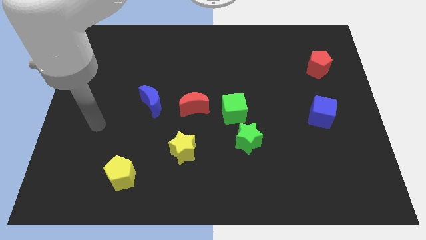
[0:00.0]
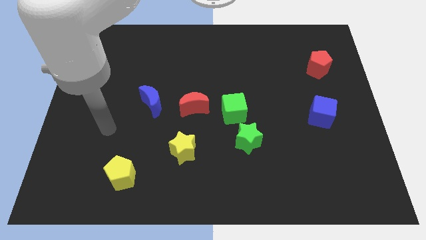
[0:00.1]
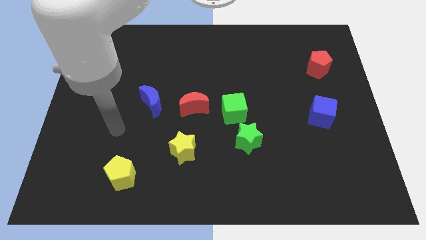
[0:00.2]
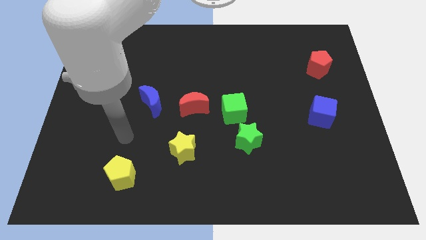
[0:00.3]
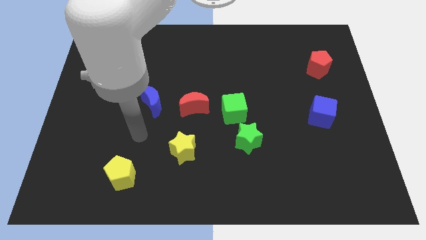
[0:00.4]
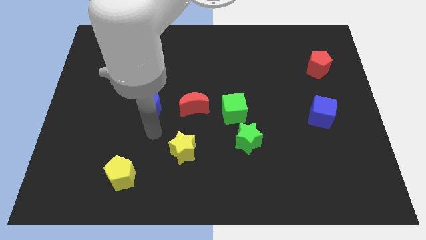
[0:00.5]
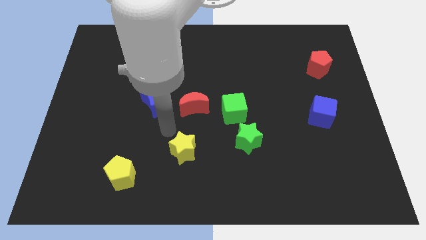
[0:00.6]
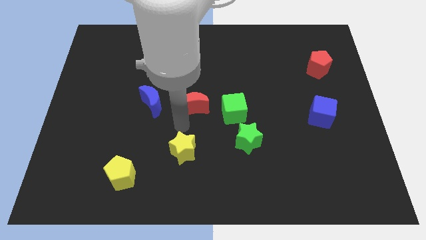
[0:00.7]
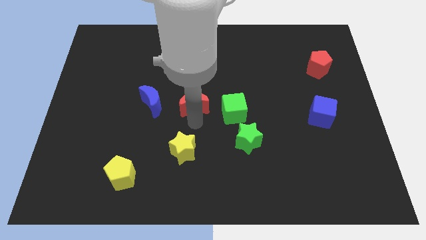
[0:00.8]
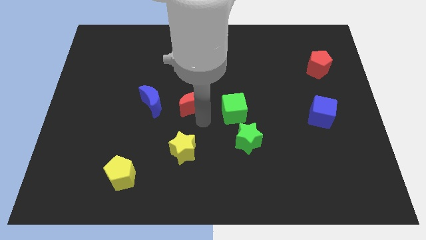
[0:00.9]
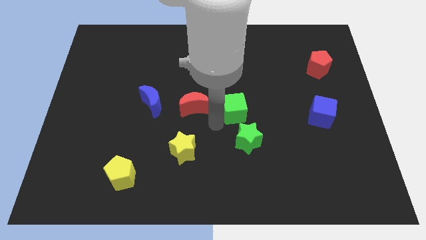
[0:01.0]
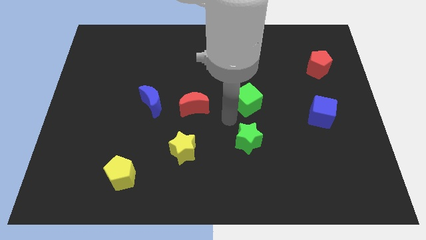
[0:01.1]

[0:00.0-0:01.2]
separate the green star from the green cube

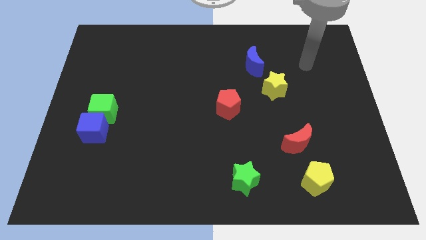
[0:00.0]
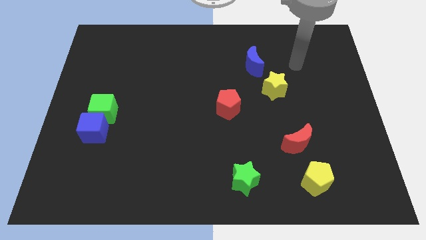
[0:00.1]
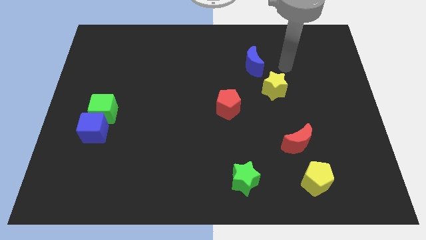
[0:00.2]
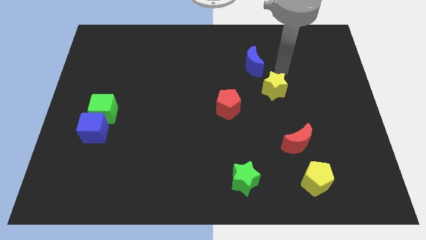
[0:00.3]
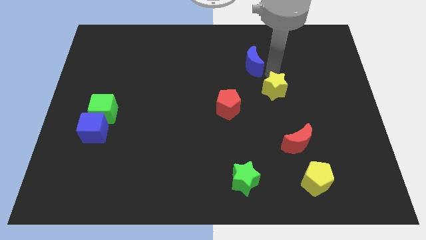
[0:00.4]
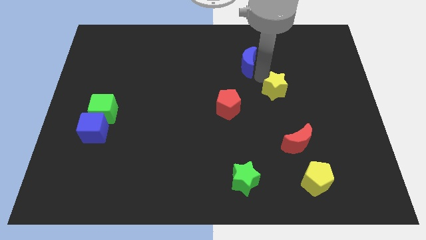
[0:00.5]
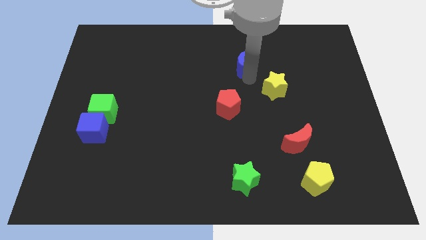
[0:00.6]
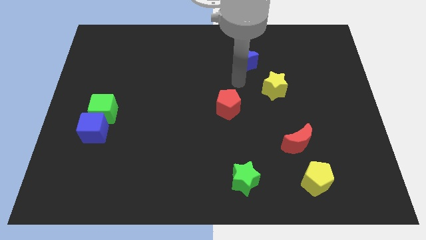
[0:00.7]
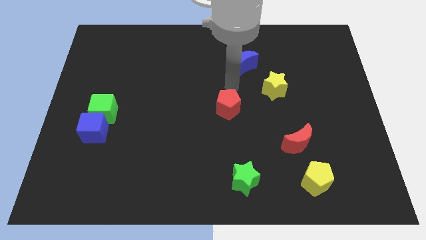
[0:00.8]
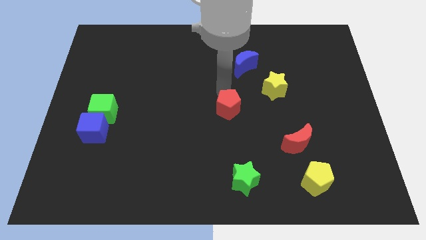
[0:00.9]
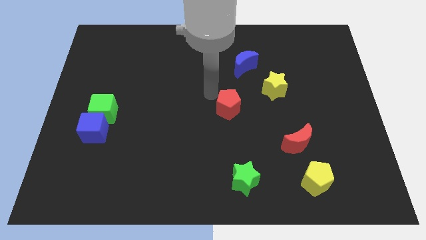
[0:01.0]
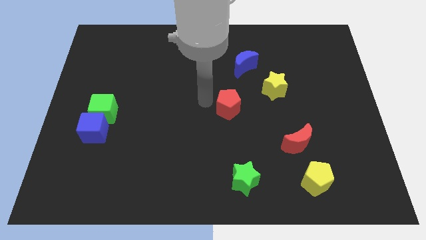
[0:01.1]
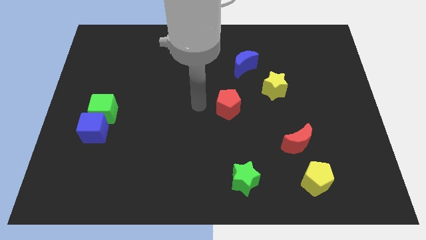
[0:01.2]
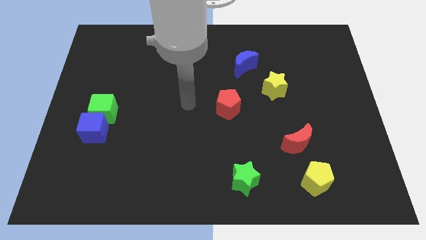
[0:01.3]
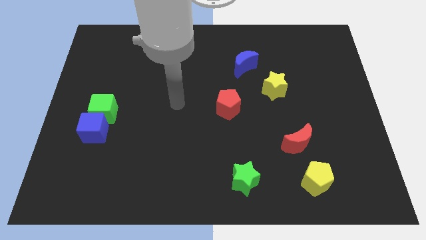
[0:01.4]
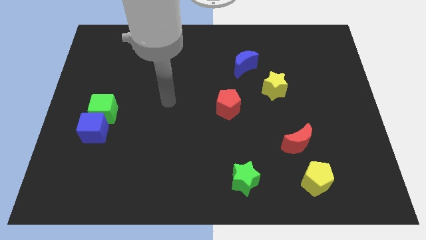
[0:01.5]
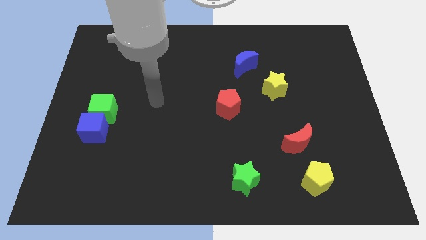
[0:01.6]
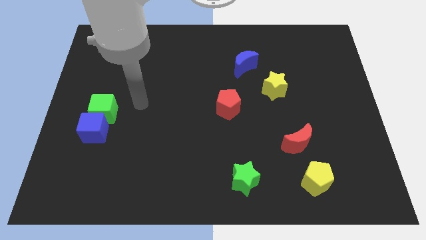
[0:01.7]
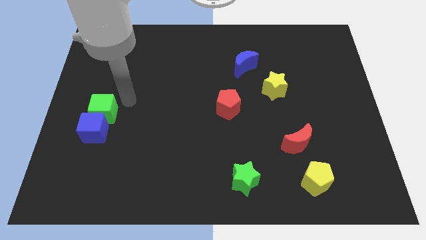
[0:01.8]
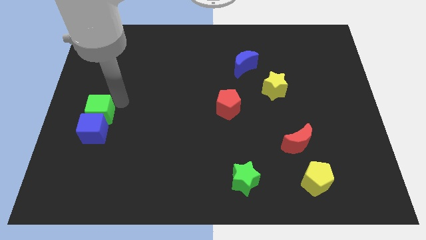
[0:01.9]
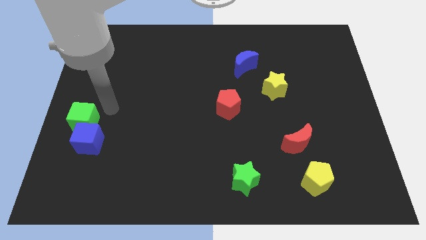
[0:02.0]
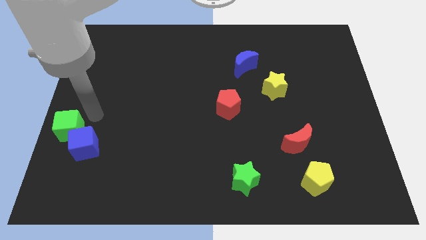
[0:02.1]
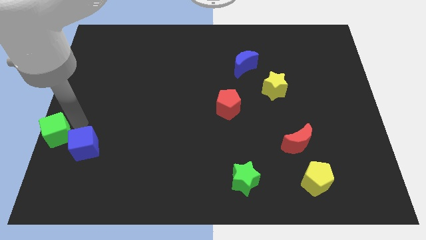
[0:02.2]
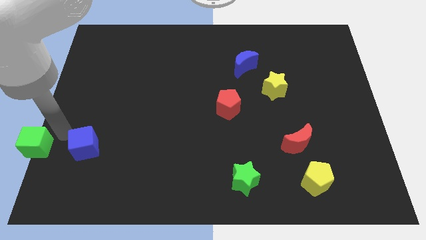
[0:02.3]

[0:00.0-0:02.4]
pull the blue cube apart from the green cube

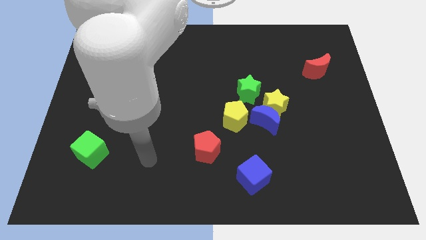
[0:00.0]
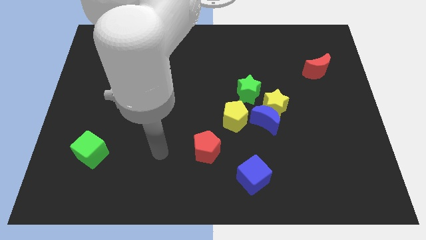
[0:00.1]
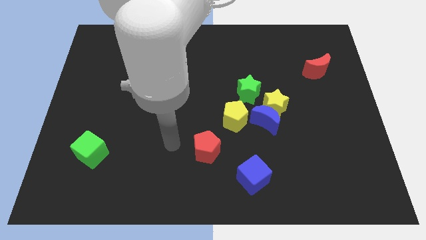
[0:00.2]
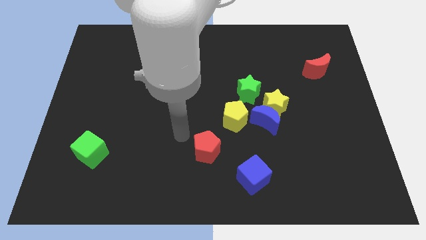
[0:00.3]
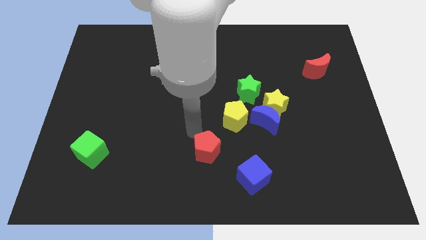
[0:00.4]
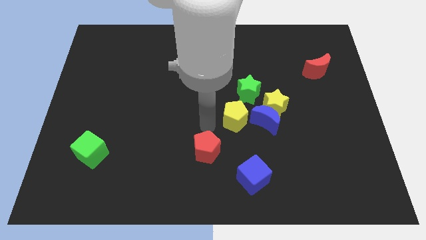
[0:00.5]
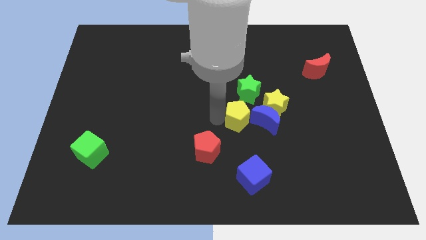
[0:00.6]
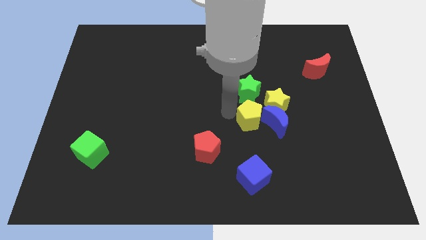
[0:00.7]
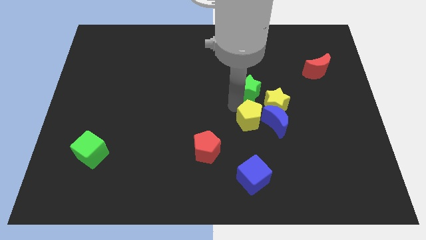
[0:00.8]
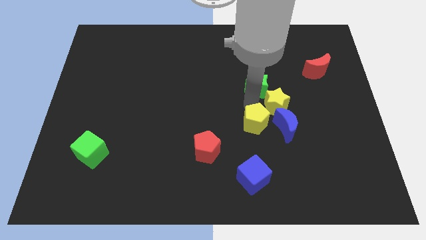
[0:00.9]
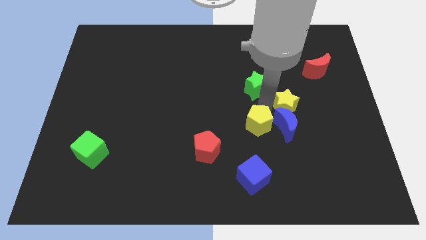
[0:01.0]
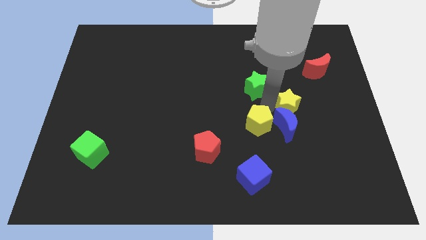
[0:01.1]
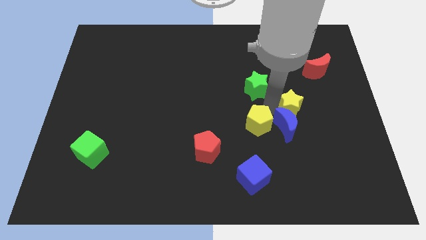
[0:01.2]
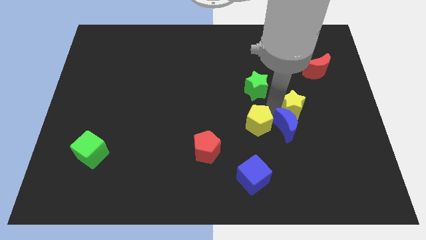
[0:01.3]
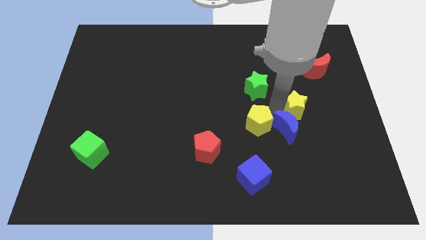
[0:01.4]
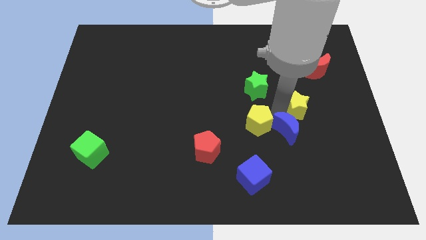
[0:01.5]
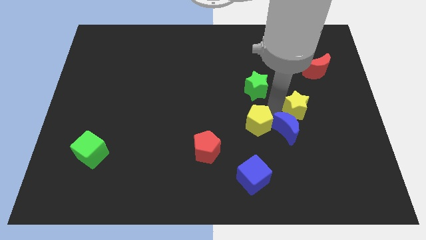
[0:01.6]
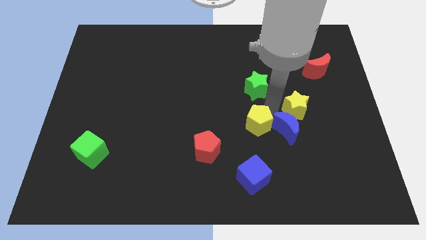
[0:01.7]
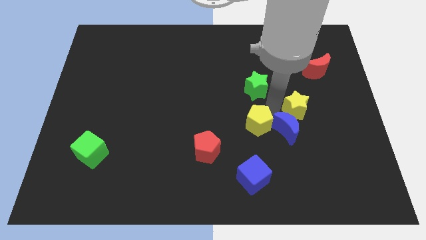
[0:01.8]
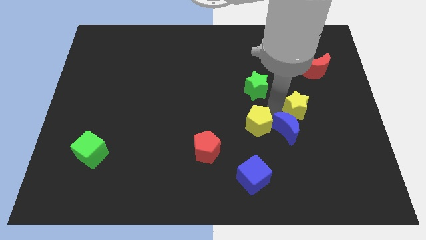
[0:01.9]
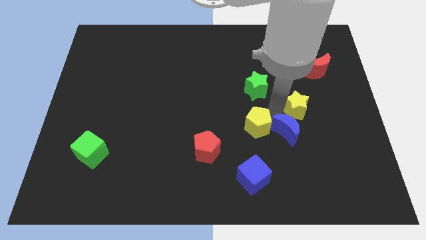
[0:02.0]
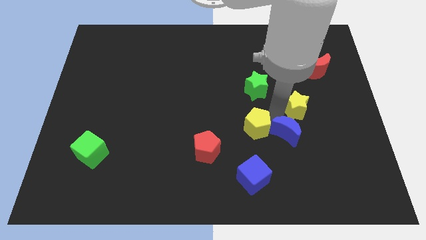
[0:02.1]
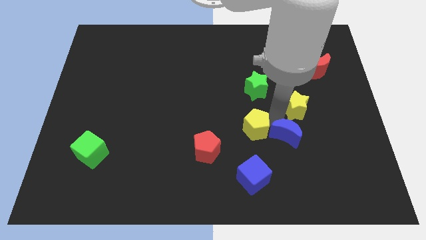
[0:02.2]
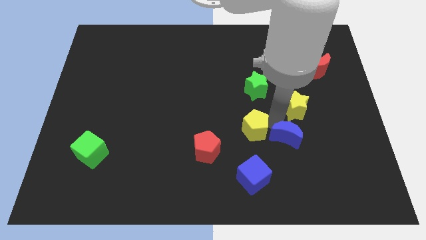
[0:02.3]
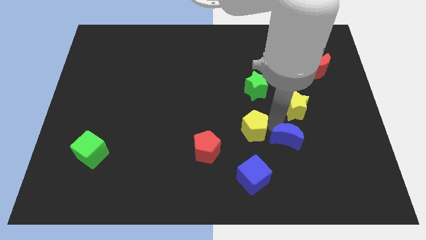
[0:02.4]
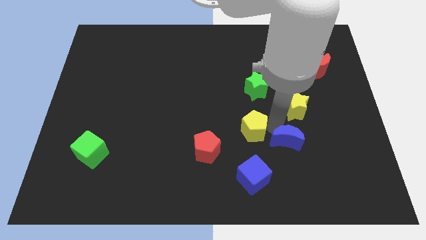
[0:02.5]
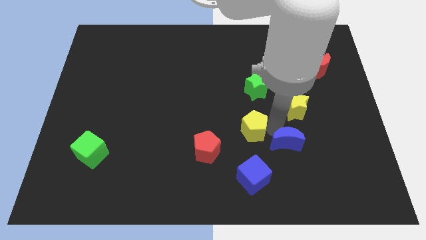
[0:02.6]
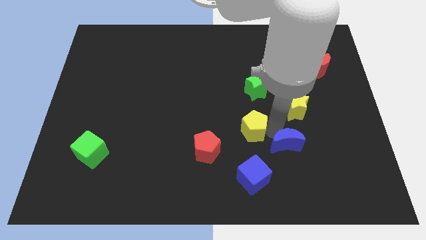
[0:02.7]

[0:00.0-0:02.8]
separate the blue moon from the group of blocks

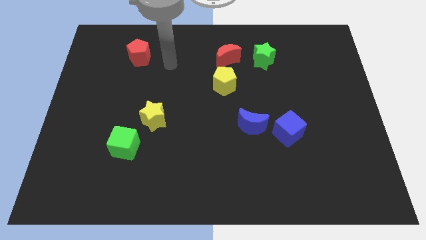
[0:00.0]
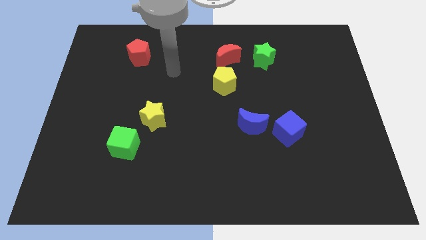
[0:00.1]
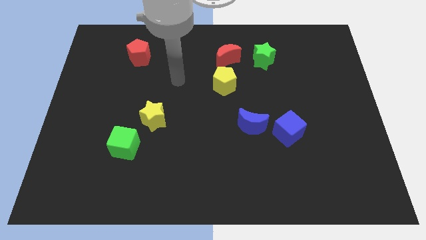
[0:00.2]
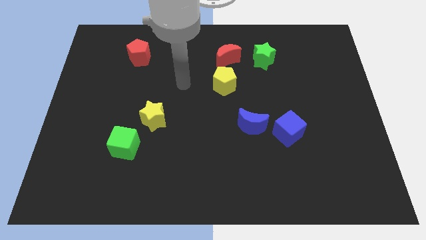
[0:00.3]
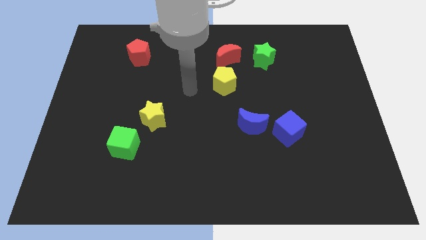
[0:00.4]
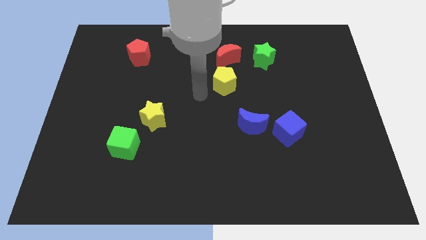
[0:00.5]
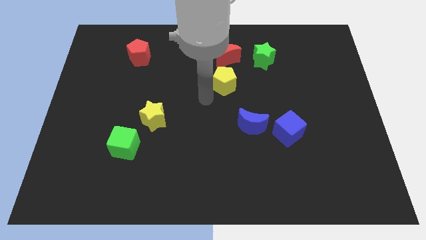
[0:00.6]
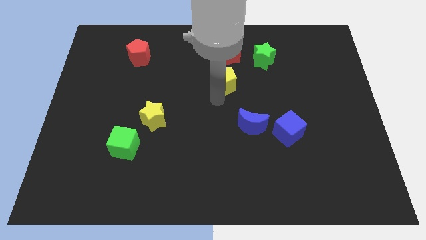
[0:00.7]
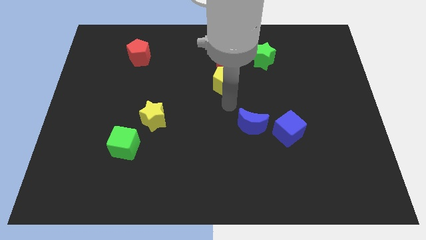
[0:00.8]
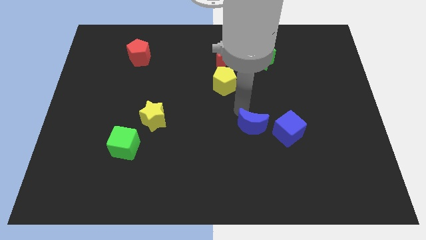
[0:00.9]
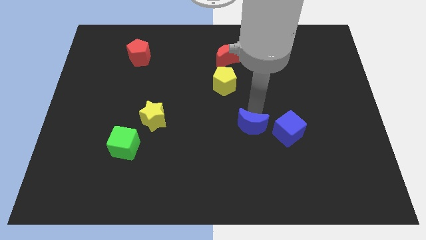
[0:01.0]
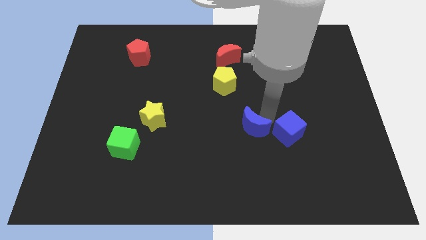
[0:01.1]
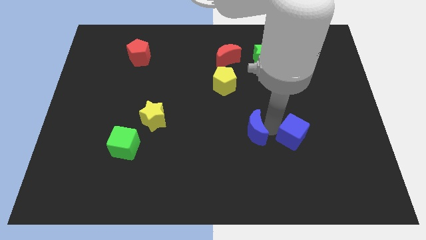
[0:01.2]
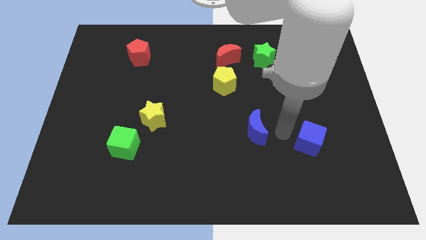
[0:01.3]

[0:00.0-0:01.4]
separate the blue moon from the blue cube

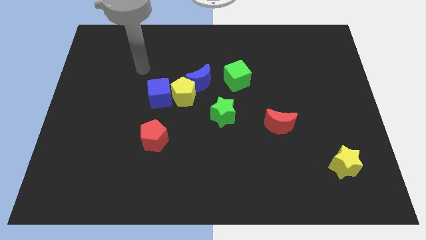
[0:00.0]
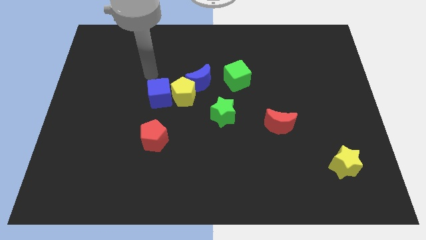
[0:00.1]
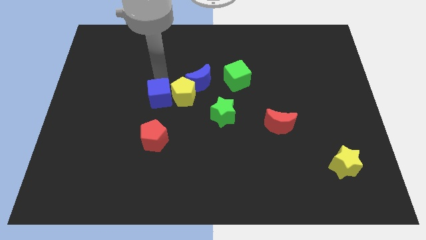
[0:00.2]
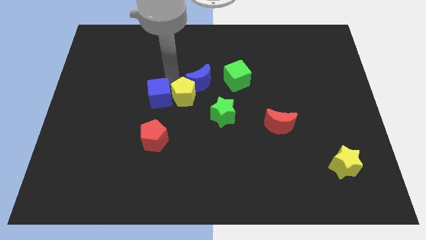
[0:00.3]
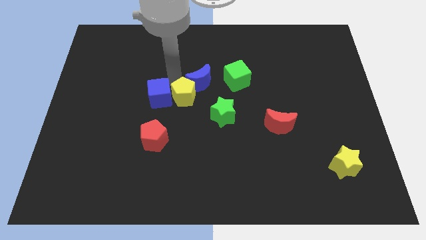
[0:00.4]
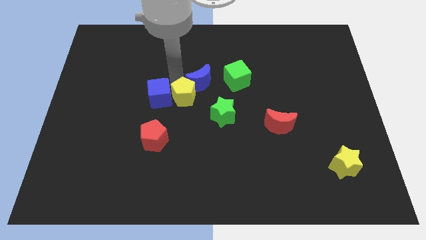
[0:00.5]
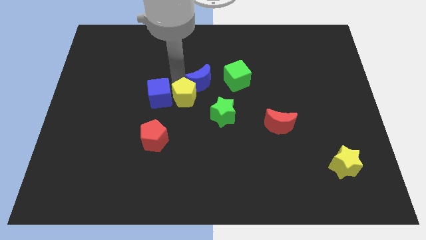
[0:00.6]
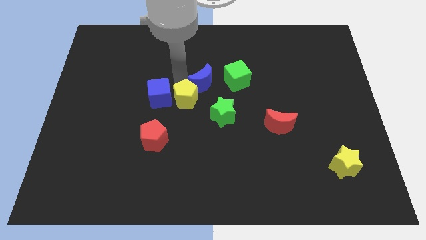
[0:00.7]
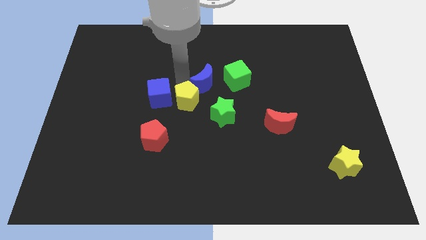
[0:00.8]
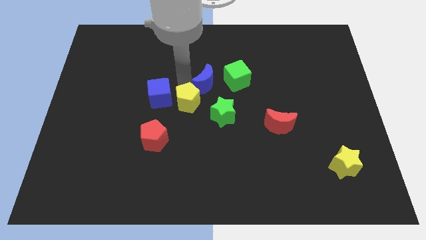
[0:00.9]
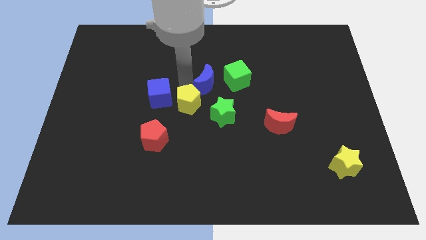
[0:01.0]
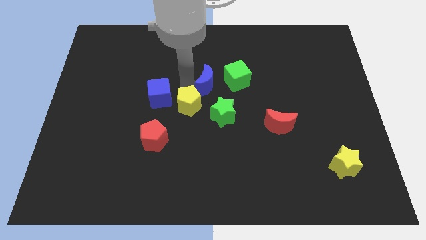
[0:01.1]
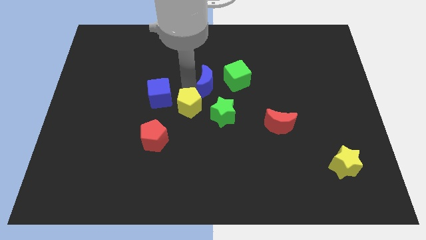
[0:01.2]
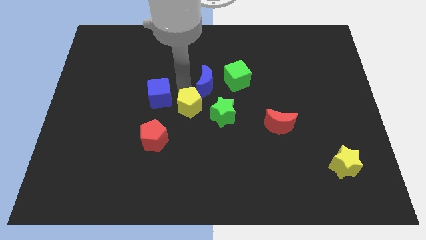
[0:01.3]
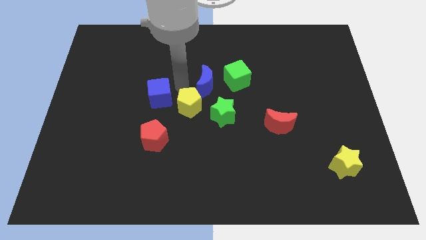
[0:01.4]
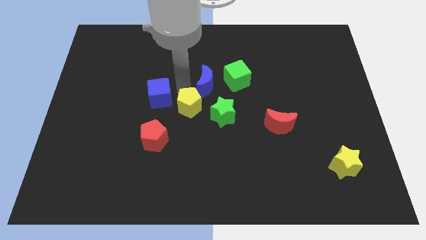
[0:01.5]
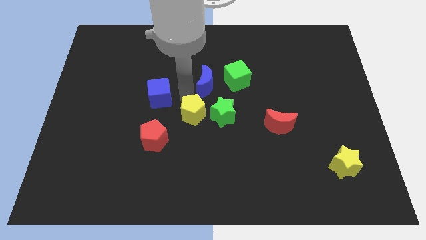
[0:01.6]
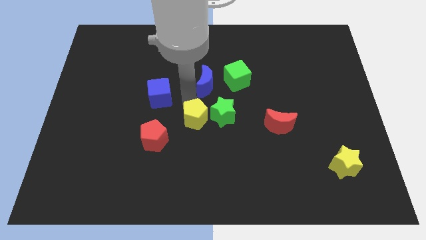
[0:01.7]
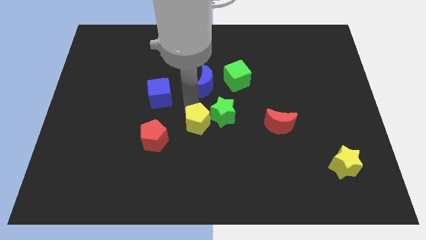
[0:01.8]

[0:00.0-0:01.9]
move the yellow pentagon away from the blue moon and blue cube
